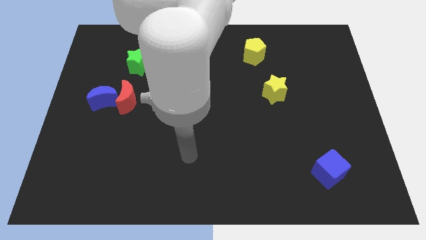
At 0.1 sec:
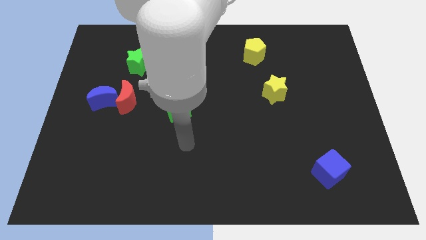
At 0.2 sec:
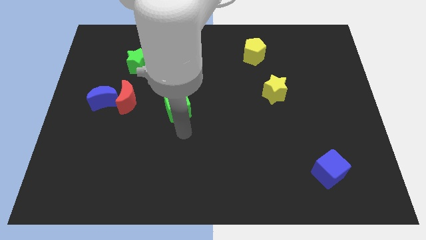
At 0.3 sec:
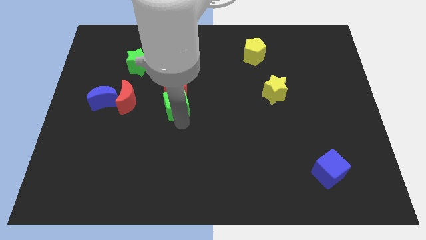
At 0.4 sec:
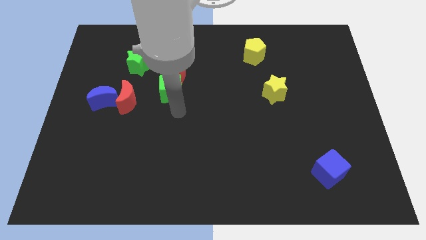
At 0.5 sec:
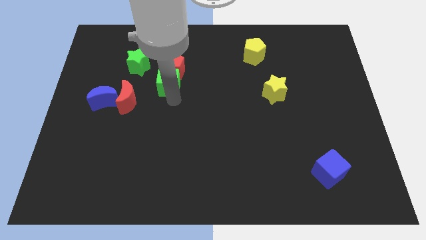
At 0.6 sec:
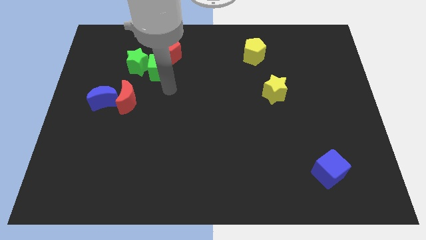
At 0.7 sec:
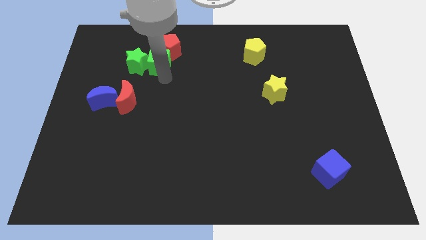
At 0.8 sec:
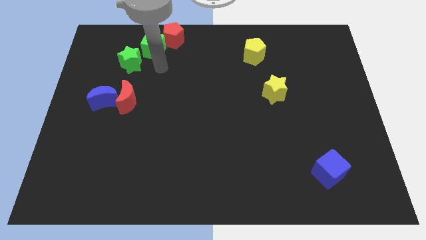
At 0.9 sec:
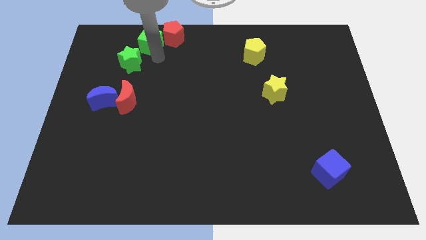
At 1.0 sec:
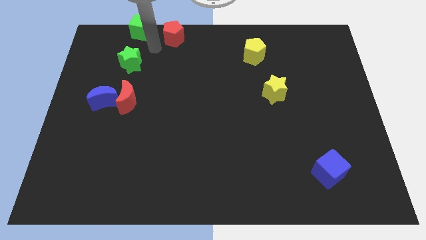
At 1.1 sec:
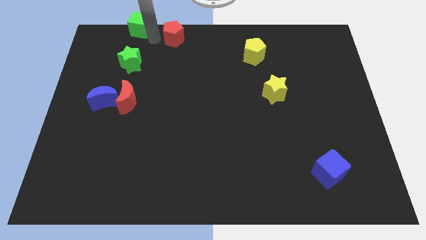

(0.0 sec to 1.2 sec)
separate the red pentagon from the green cube

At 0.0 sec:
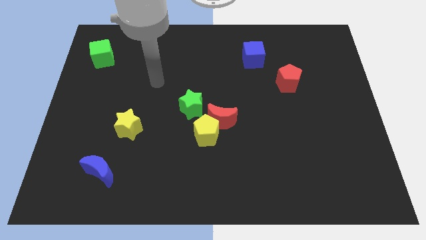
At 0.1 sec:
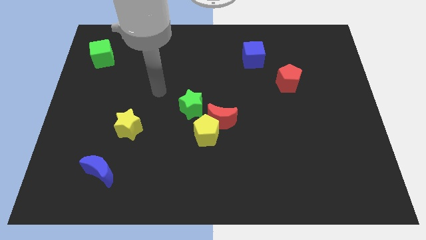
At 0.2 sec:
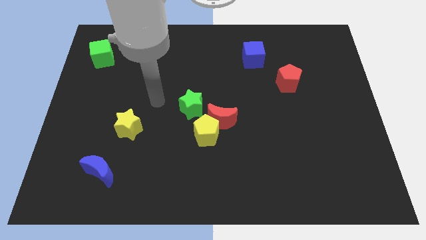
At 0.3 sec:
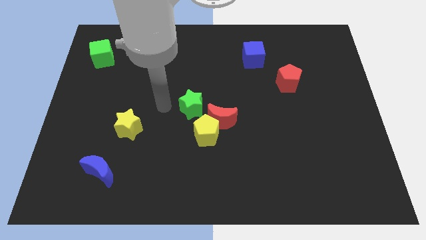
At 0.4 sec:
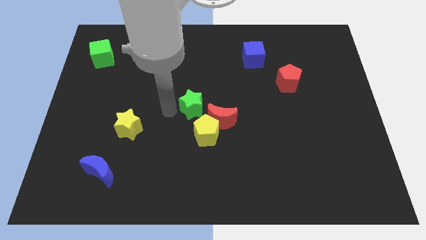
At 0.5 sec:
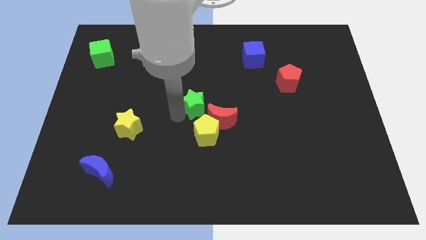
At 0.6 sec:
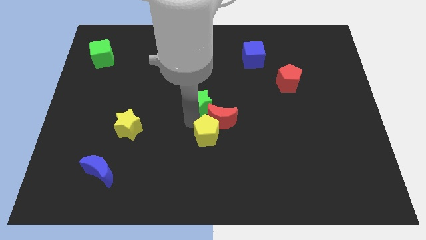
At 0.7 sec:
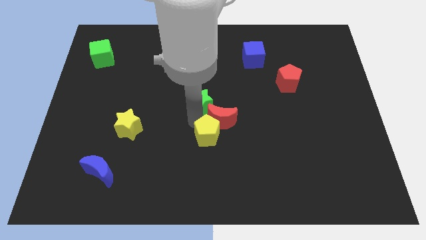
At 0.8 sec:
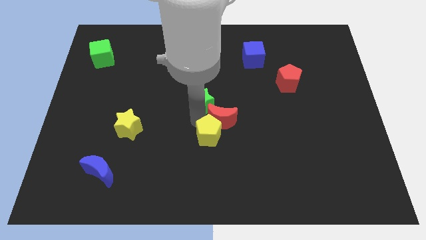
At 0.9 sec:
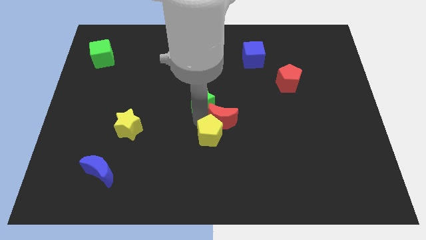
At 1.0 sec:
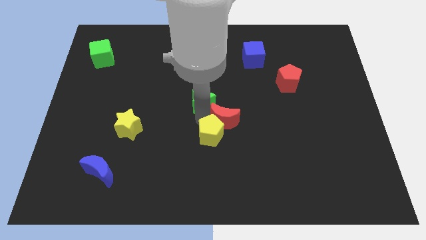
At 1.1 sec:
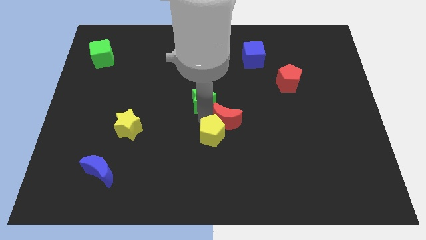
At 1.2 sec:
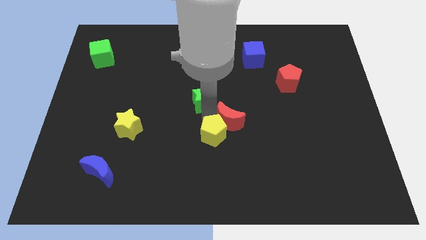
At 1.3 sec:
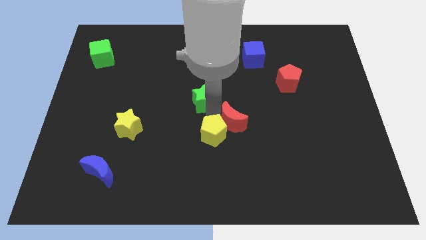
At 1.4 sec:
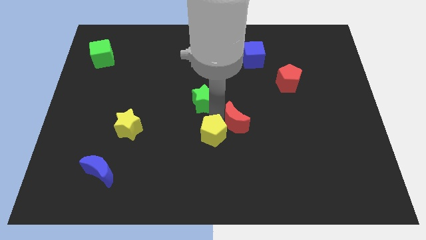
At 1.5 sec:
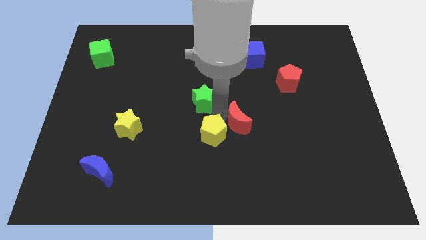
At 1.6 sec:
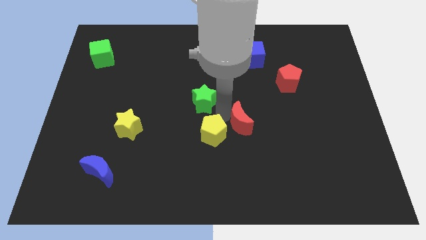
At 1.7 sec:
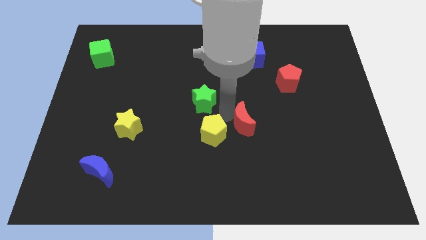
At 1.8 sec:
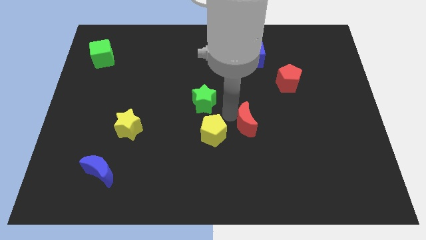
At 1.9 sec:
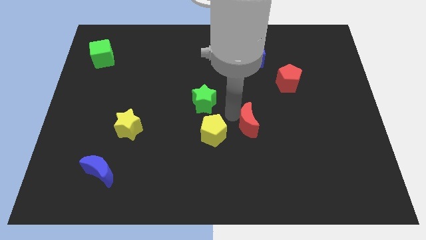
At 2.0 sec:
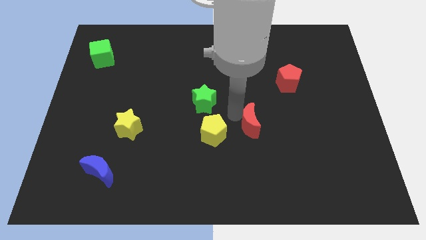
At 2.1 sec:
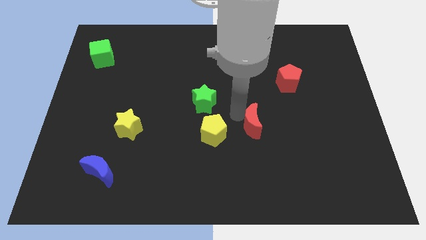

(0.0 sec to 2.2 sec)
separate the red moon from the yellow pentagon and green star

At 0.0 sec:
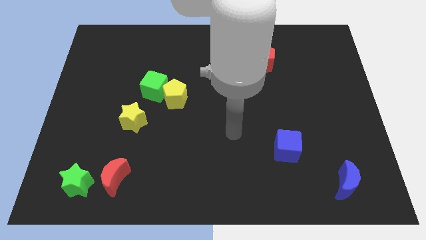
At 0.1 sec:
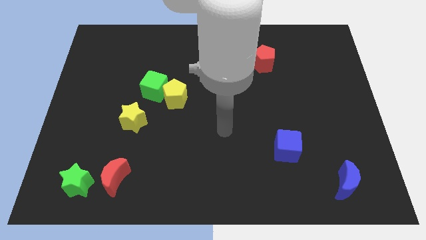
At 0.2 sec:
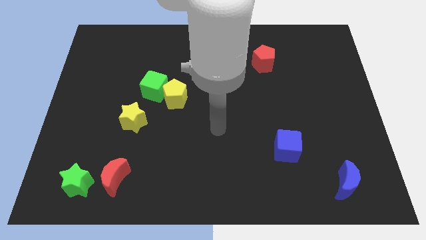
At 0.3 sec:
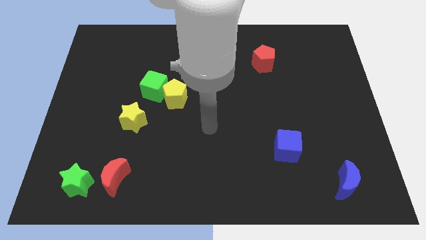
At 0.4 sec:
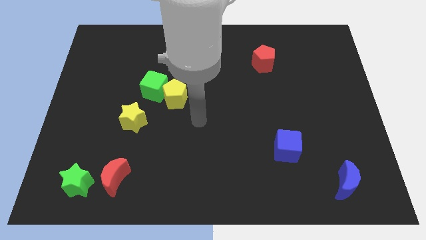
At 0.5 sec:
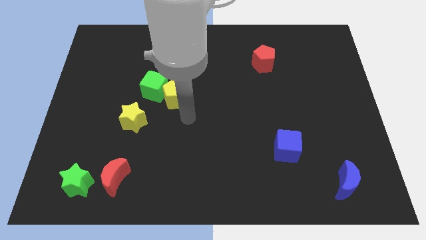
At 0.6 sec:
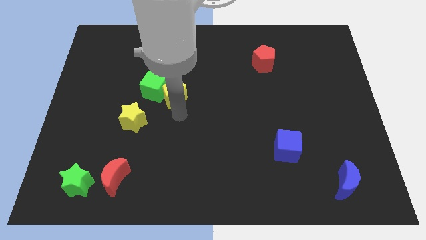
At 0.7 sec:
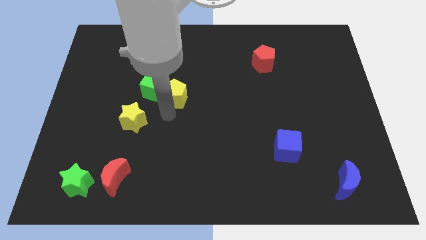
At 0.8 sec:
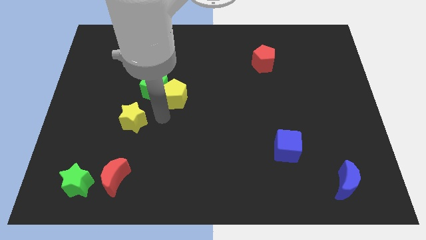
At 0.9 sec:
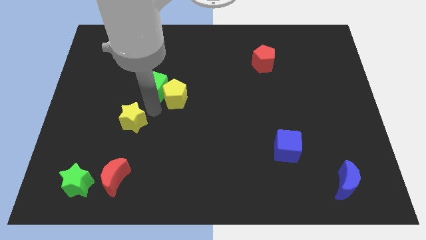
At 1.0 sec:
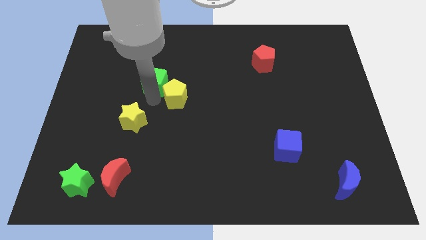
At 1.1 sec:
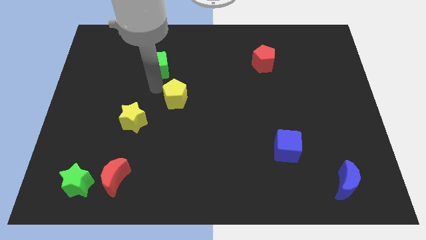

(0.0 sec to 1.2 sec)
separate the yellow pentagon from the green cube

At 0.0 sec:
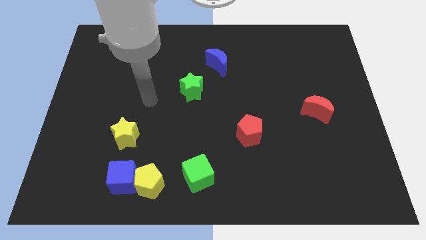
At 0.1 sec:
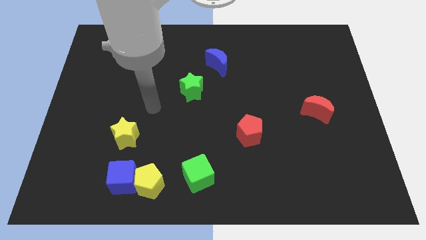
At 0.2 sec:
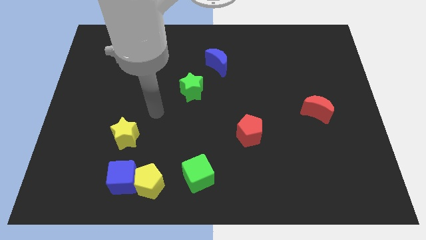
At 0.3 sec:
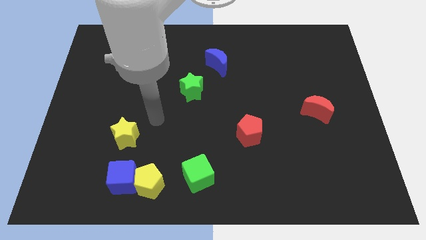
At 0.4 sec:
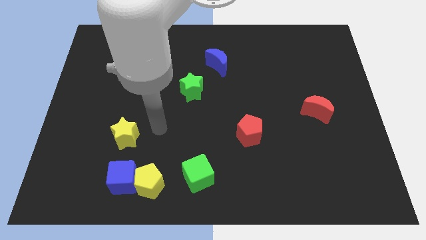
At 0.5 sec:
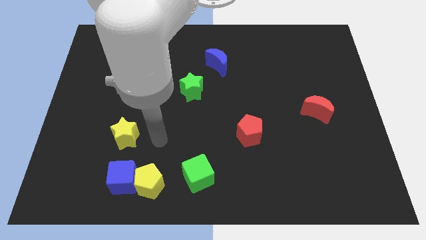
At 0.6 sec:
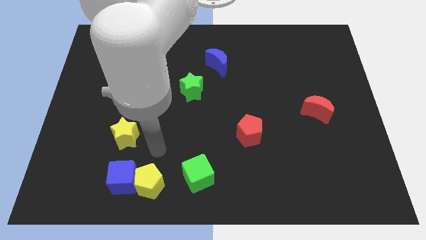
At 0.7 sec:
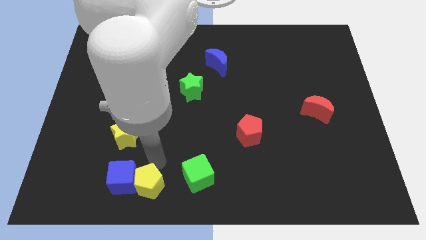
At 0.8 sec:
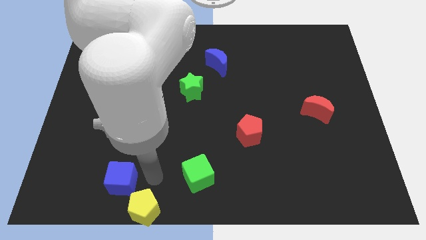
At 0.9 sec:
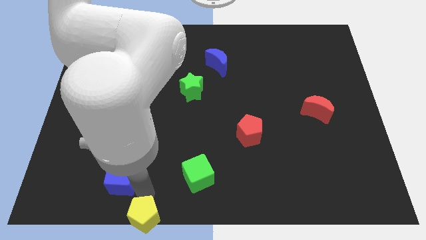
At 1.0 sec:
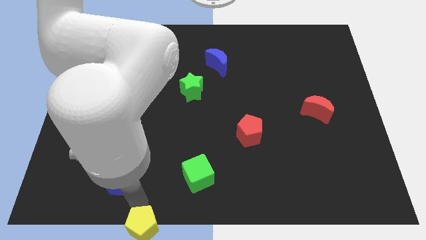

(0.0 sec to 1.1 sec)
pull the blue cube apart from the yellow pentagon

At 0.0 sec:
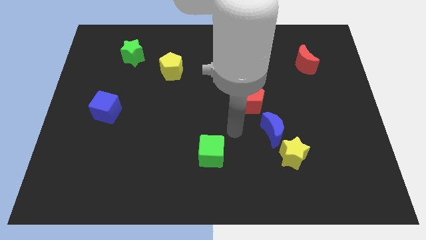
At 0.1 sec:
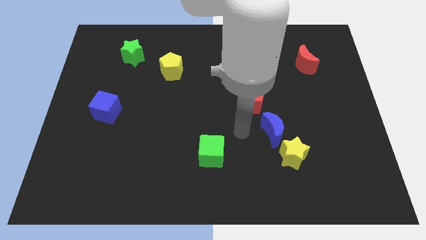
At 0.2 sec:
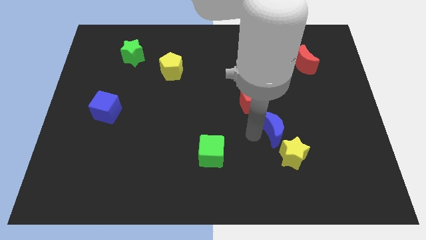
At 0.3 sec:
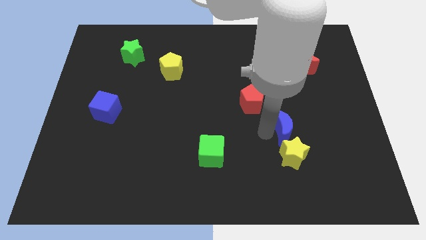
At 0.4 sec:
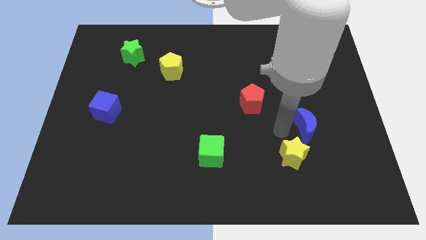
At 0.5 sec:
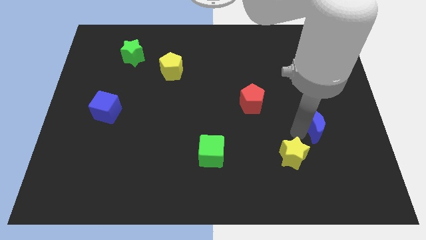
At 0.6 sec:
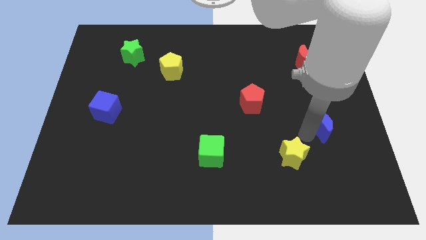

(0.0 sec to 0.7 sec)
move the yellow star away from the blue moon

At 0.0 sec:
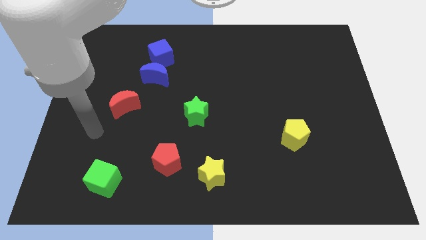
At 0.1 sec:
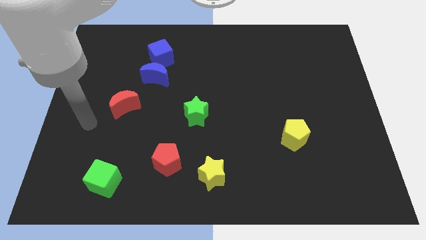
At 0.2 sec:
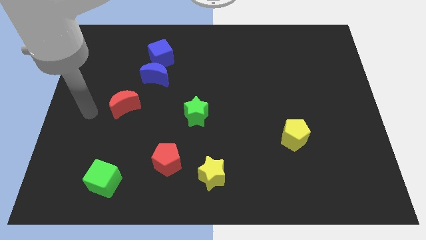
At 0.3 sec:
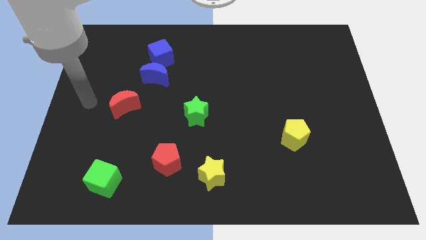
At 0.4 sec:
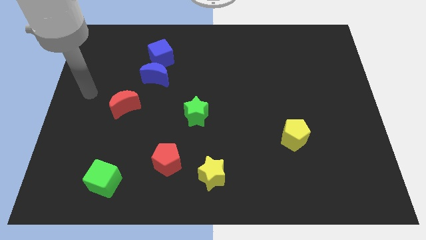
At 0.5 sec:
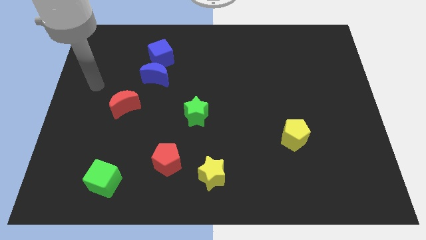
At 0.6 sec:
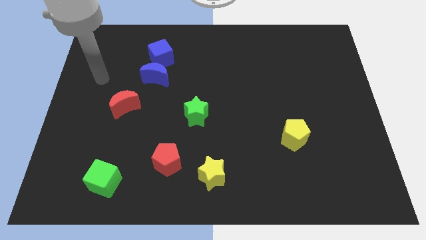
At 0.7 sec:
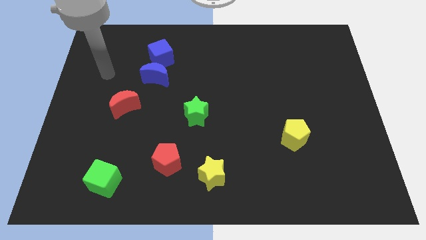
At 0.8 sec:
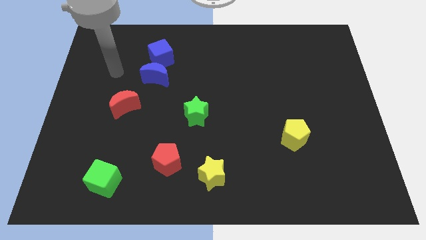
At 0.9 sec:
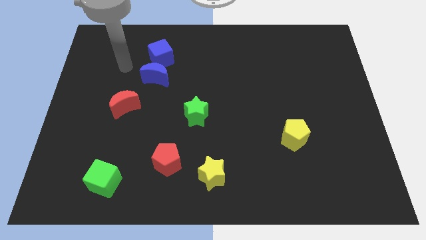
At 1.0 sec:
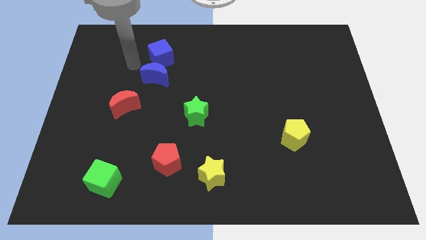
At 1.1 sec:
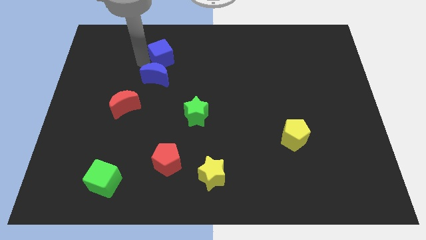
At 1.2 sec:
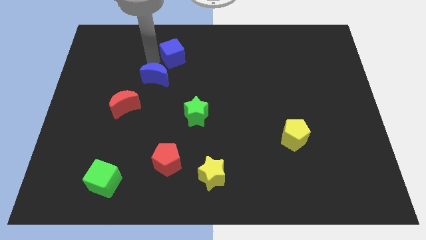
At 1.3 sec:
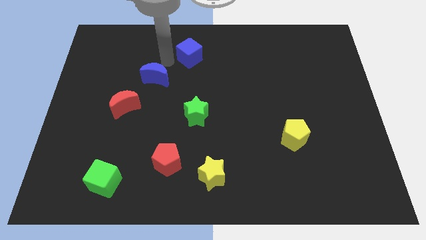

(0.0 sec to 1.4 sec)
move the blue moon away from the blue cube

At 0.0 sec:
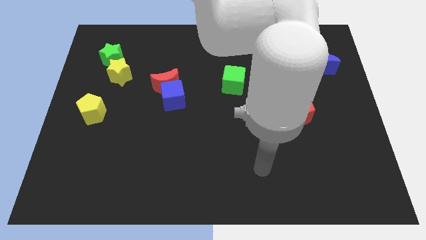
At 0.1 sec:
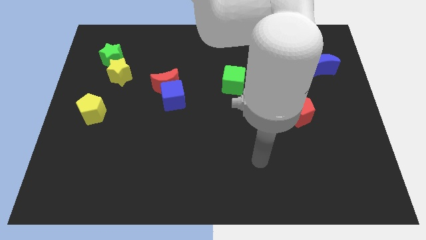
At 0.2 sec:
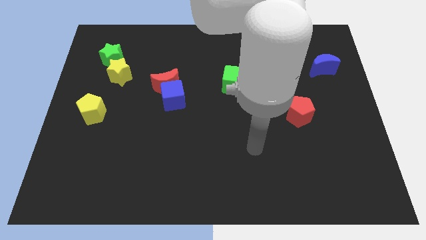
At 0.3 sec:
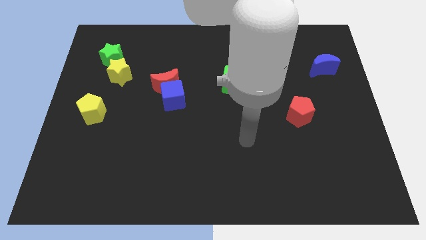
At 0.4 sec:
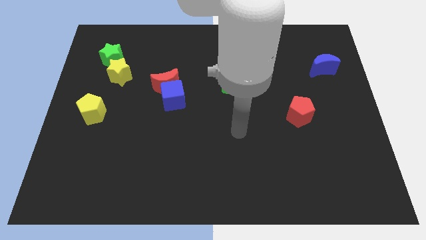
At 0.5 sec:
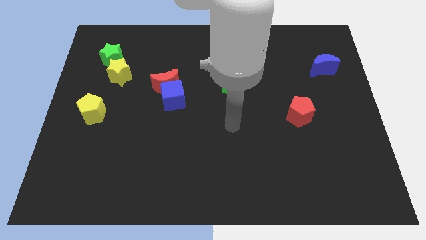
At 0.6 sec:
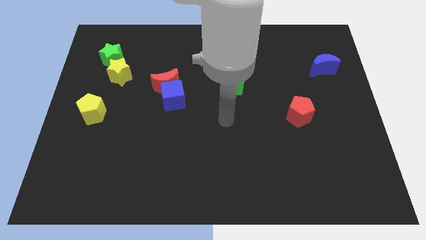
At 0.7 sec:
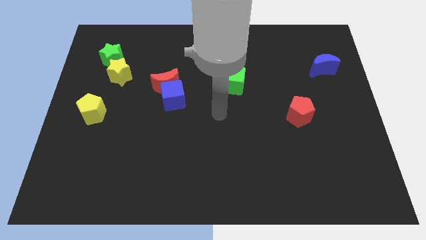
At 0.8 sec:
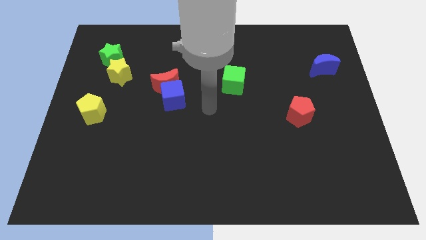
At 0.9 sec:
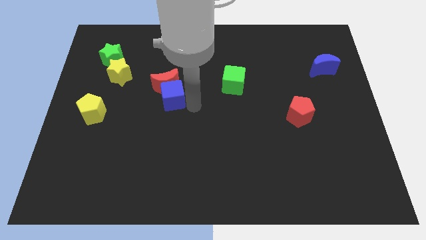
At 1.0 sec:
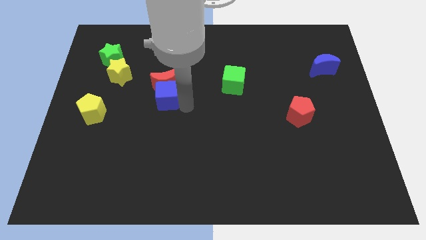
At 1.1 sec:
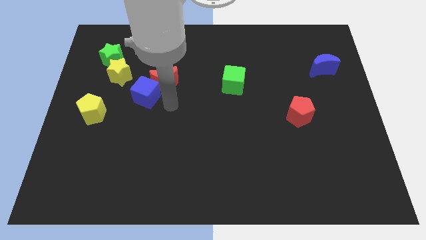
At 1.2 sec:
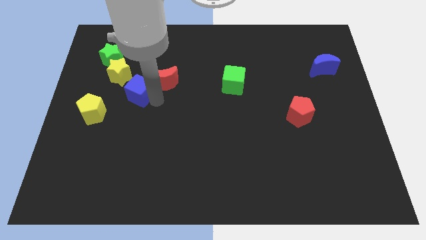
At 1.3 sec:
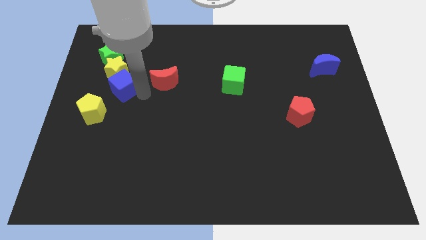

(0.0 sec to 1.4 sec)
move the red moon away from the blue cube

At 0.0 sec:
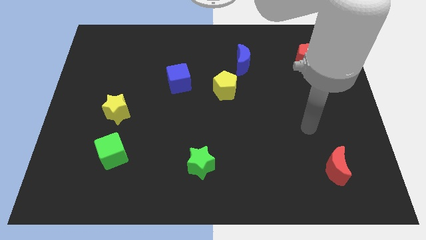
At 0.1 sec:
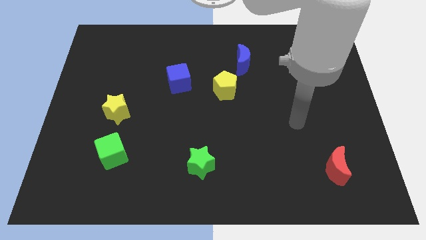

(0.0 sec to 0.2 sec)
separate the blue moon from the yellow pentagon
